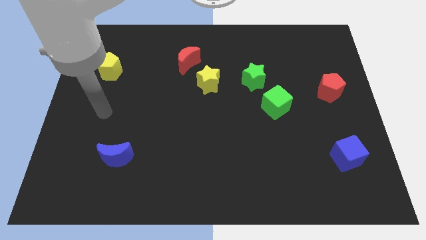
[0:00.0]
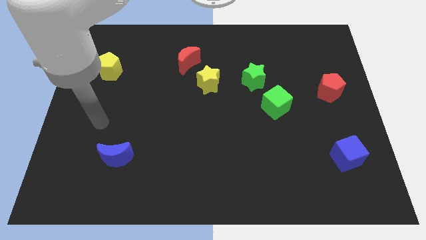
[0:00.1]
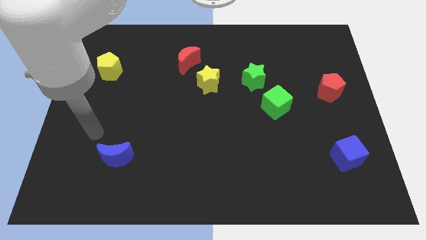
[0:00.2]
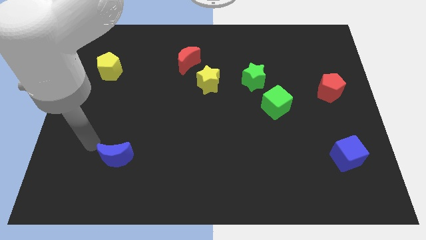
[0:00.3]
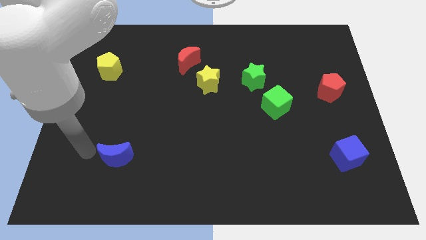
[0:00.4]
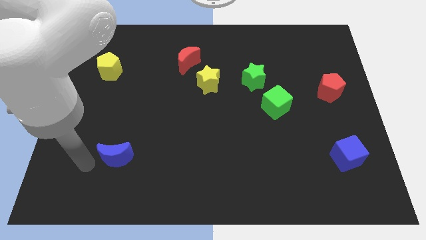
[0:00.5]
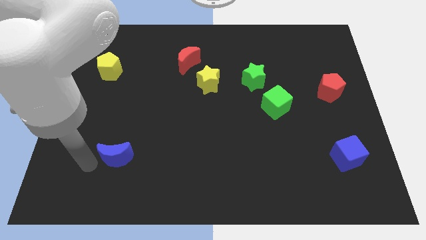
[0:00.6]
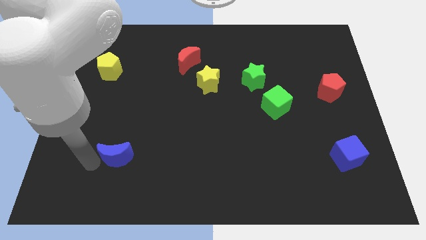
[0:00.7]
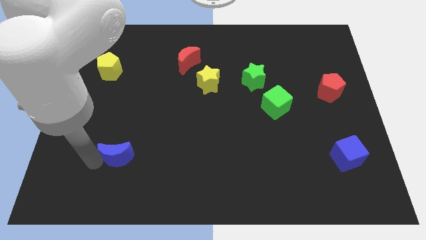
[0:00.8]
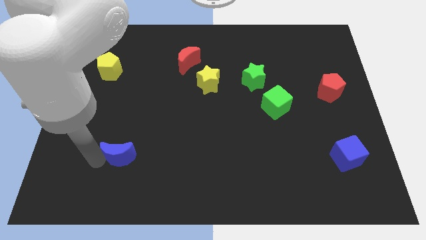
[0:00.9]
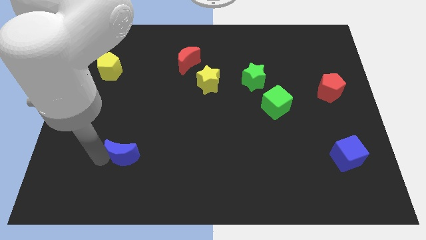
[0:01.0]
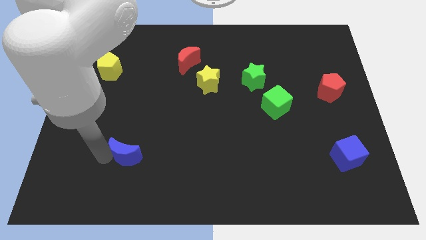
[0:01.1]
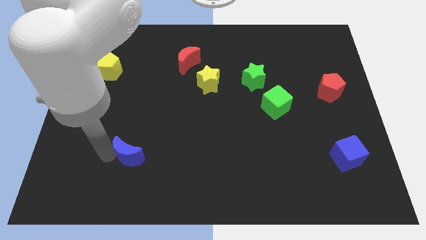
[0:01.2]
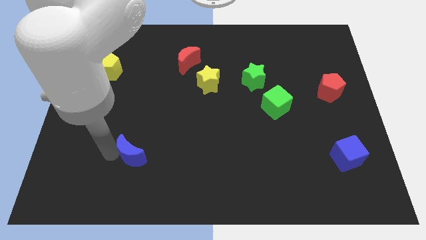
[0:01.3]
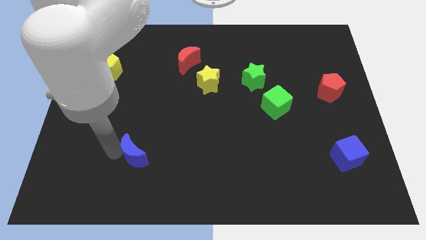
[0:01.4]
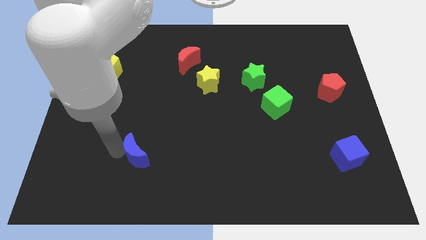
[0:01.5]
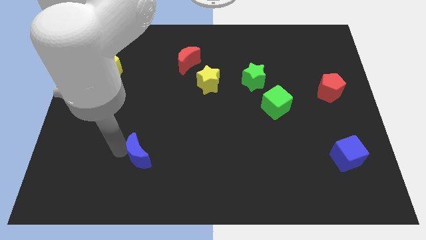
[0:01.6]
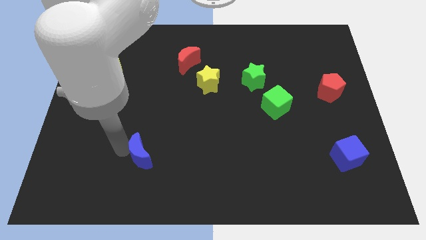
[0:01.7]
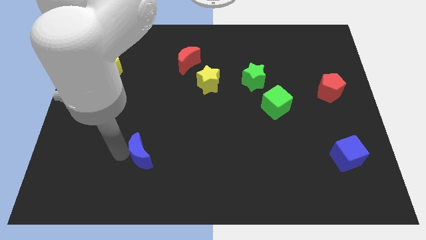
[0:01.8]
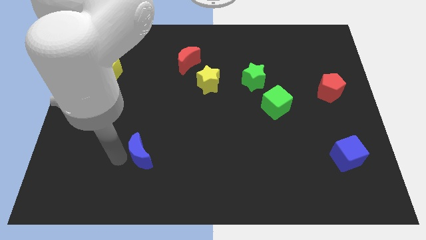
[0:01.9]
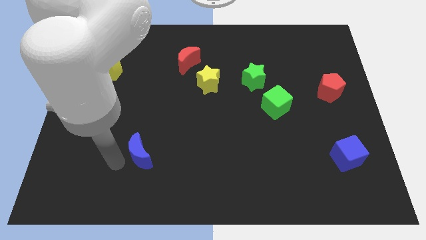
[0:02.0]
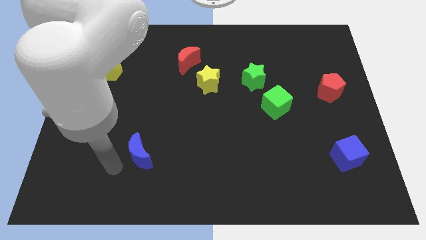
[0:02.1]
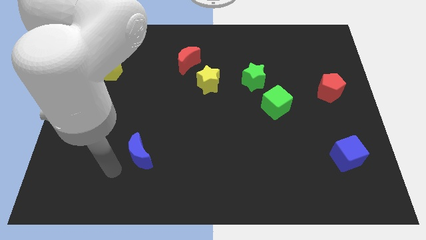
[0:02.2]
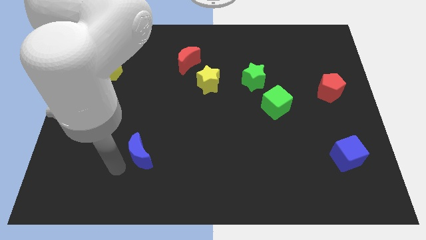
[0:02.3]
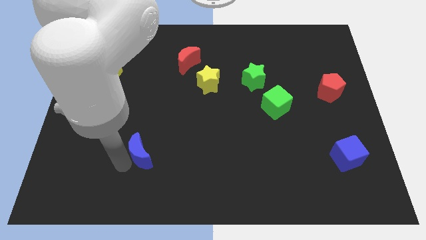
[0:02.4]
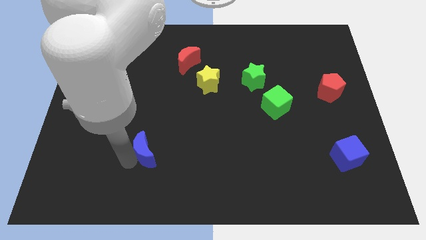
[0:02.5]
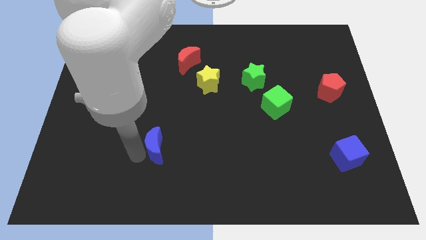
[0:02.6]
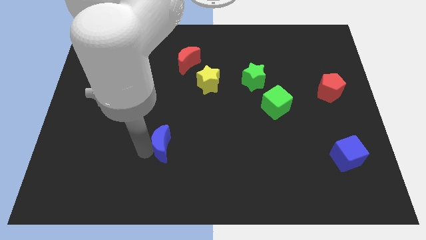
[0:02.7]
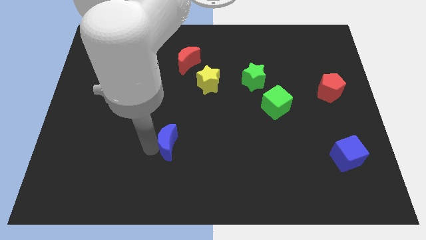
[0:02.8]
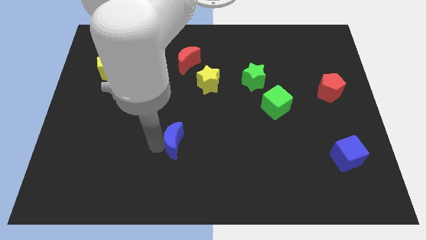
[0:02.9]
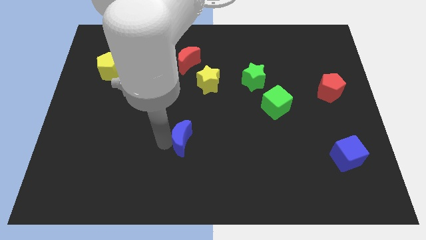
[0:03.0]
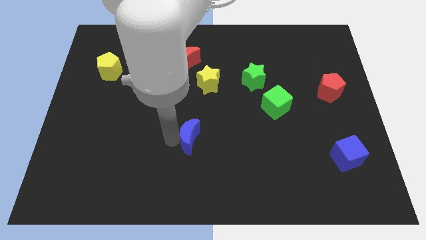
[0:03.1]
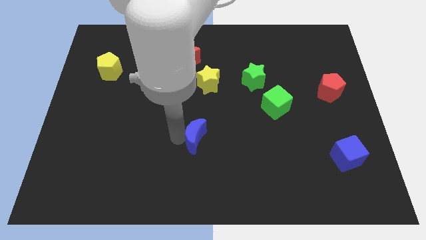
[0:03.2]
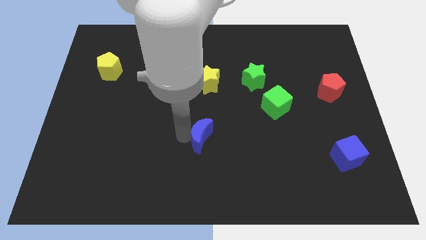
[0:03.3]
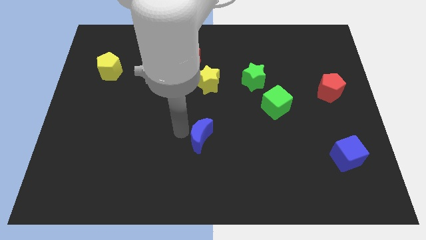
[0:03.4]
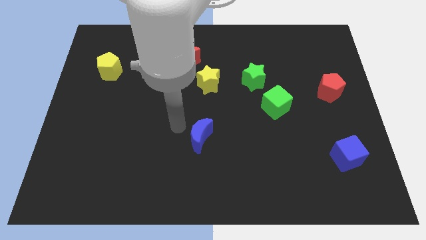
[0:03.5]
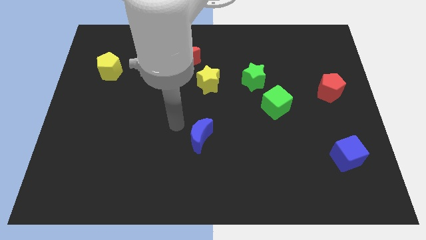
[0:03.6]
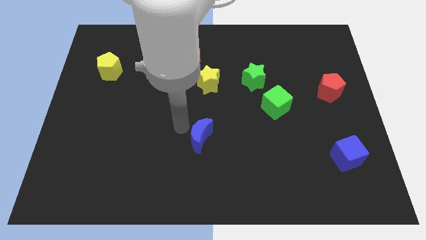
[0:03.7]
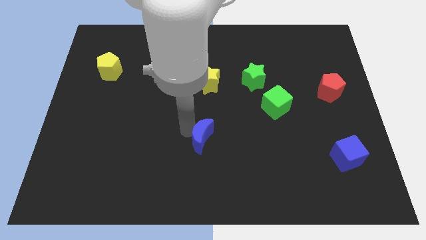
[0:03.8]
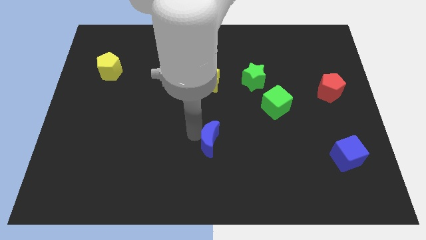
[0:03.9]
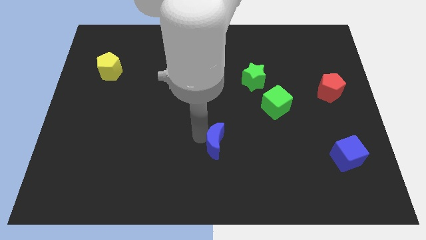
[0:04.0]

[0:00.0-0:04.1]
slide the blue moon to the right

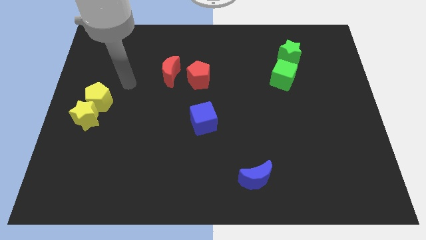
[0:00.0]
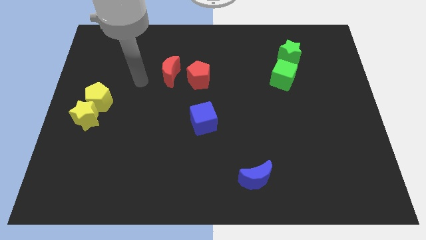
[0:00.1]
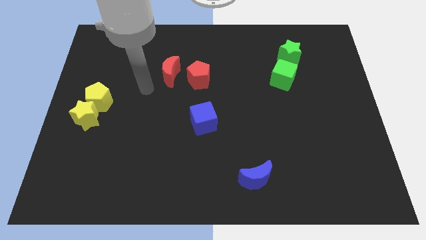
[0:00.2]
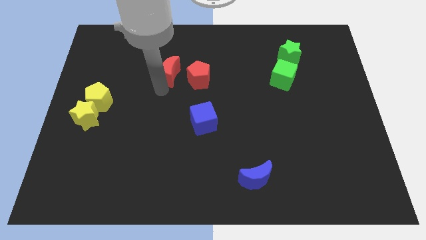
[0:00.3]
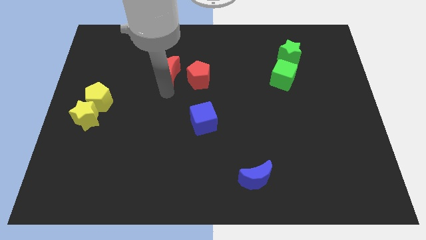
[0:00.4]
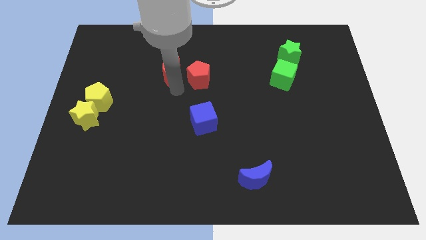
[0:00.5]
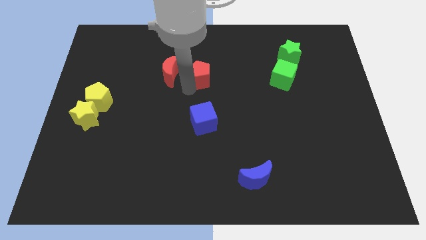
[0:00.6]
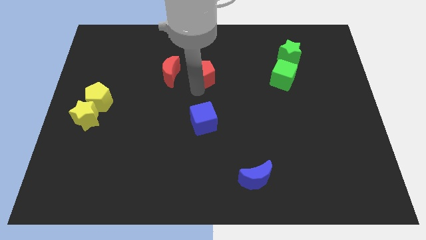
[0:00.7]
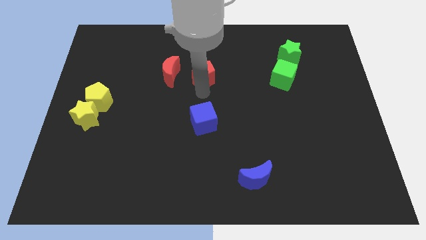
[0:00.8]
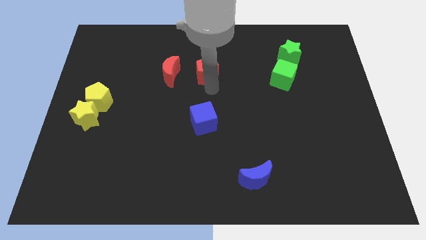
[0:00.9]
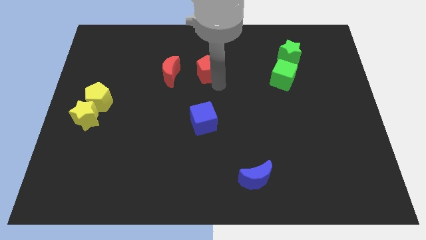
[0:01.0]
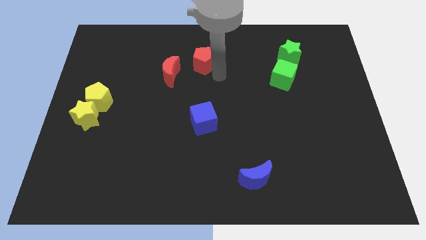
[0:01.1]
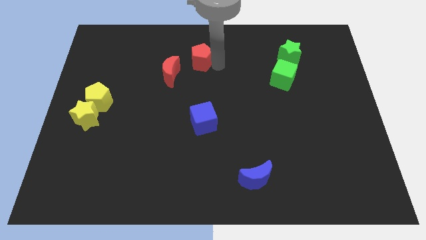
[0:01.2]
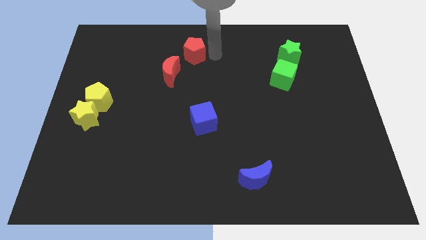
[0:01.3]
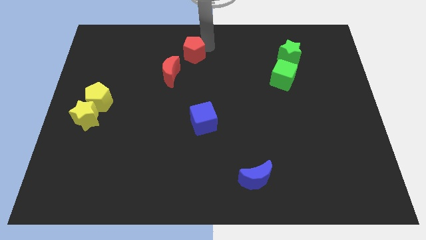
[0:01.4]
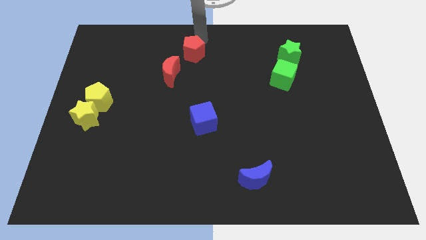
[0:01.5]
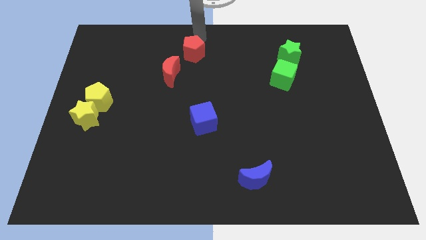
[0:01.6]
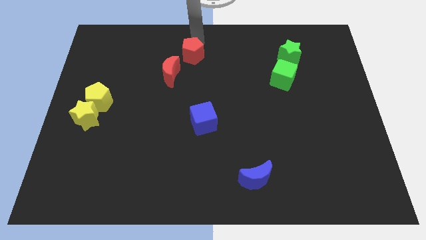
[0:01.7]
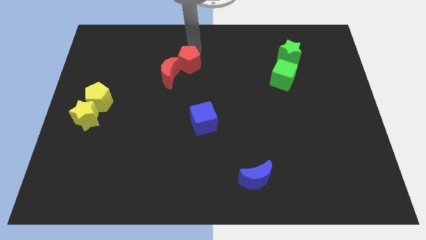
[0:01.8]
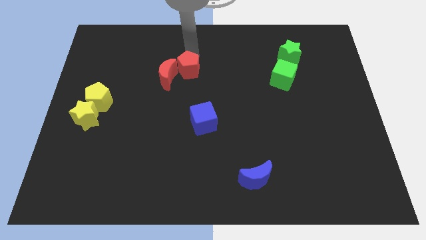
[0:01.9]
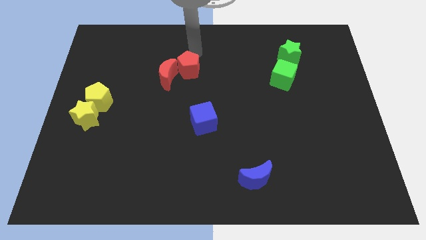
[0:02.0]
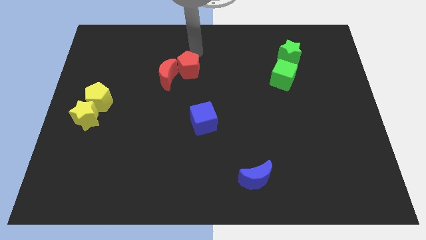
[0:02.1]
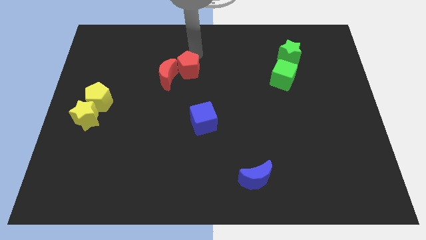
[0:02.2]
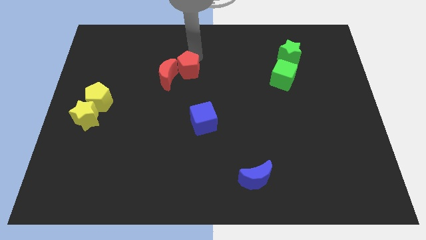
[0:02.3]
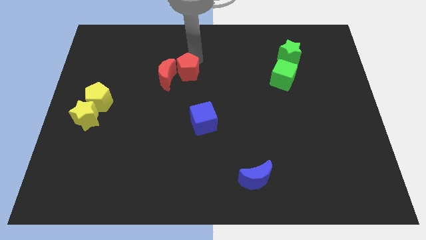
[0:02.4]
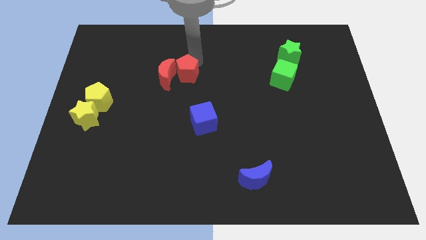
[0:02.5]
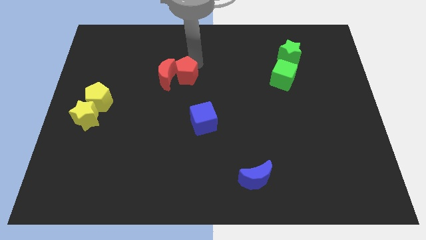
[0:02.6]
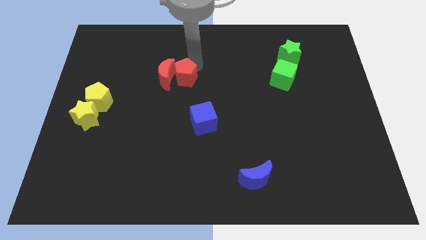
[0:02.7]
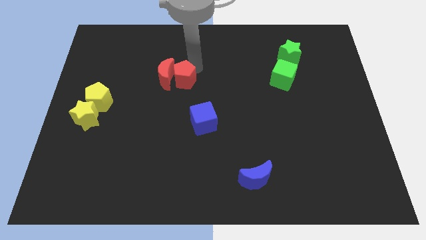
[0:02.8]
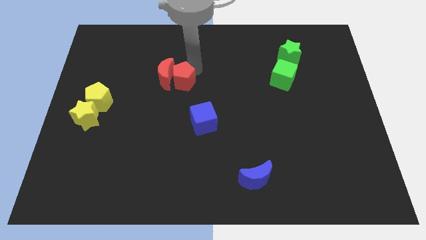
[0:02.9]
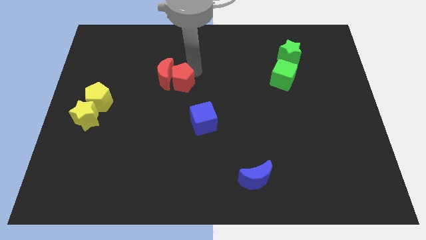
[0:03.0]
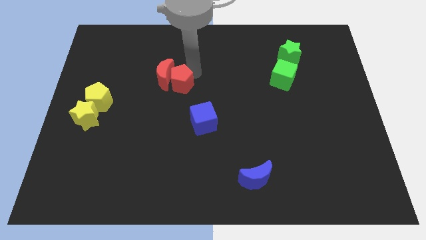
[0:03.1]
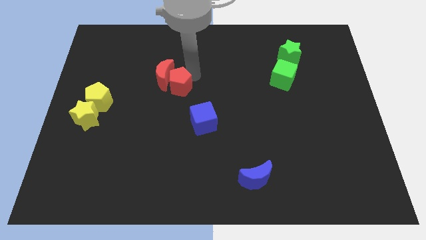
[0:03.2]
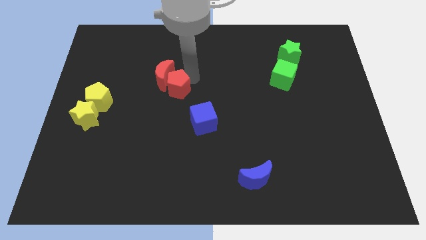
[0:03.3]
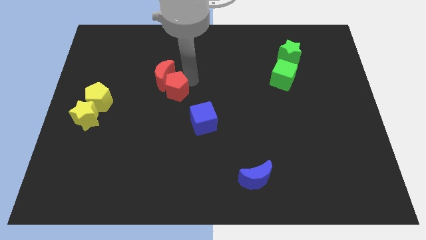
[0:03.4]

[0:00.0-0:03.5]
slightly move the red pentagon diagonally downwards and to the left
